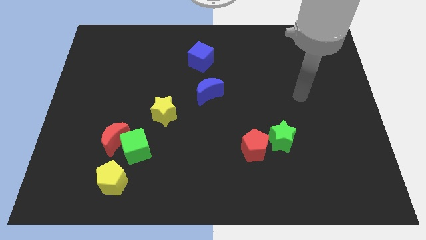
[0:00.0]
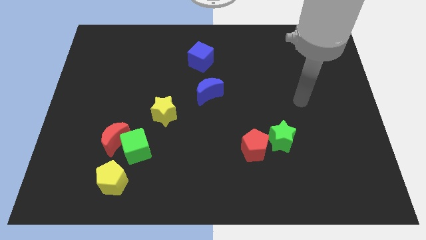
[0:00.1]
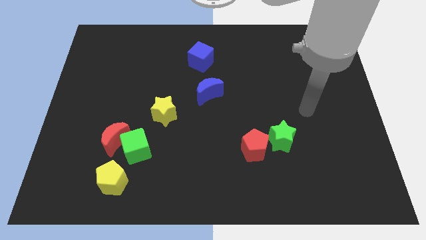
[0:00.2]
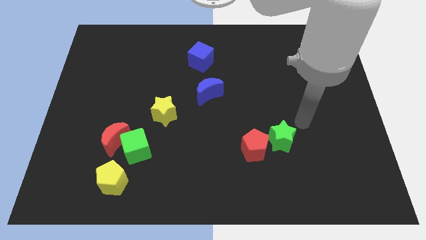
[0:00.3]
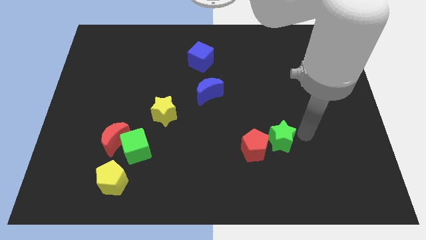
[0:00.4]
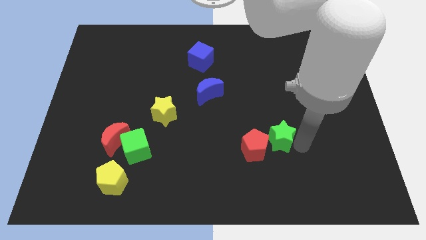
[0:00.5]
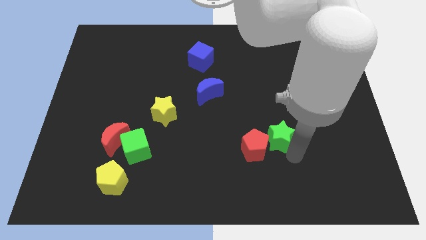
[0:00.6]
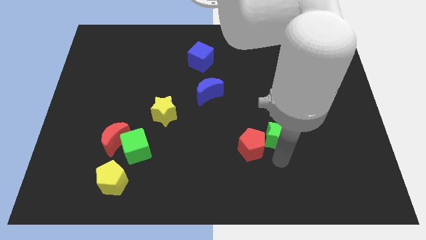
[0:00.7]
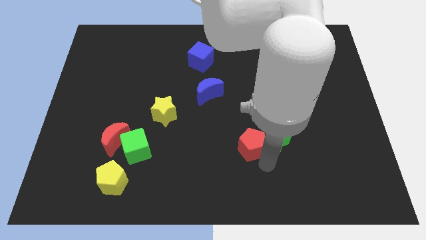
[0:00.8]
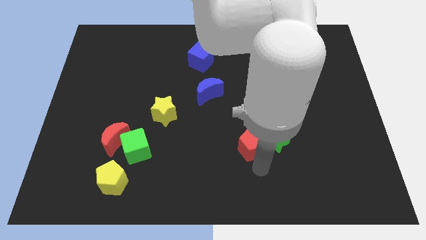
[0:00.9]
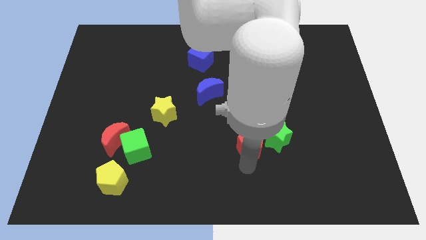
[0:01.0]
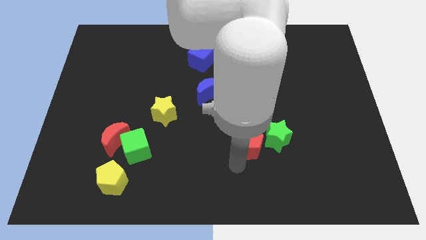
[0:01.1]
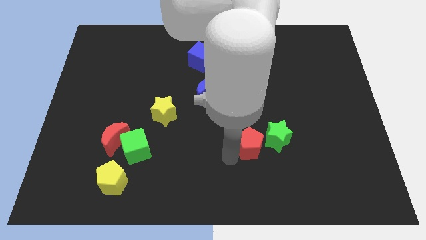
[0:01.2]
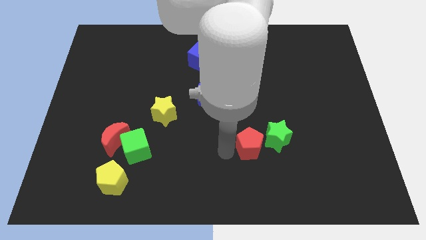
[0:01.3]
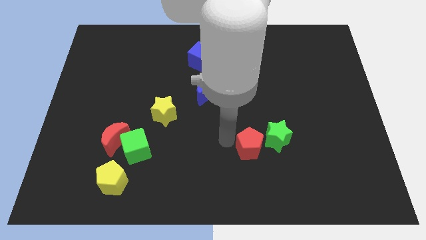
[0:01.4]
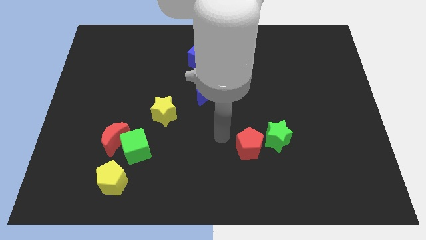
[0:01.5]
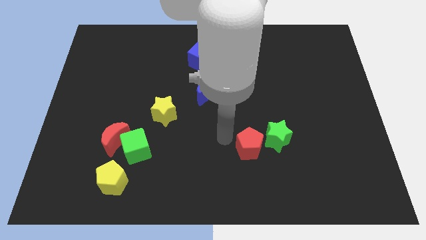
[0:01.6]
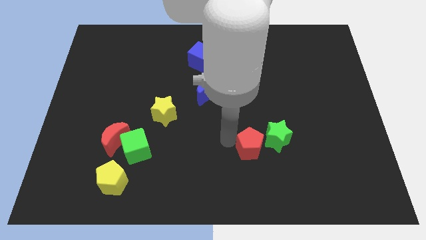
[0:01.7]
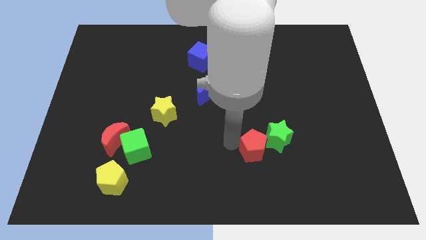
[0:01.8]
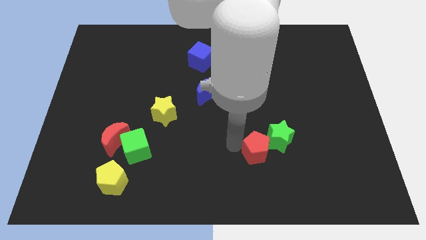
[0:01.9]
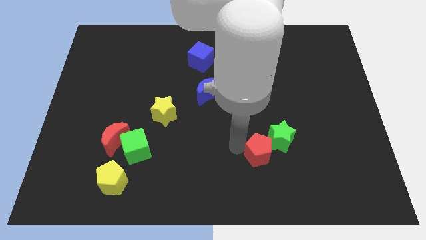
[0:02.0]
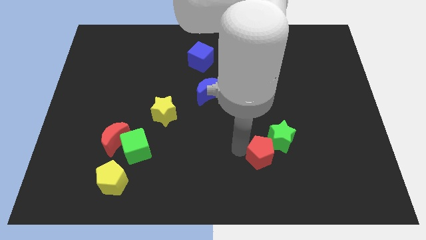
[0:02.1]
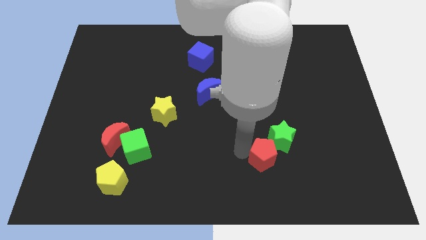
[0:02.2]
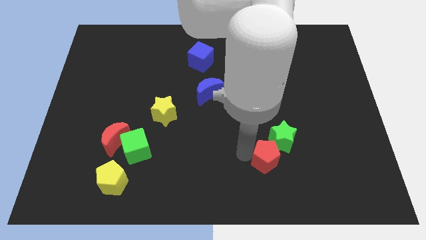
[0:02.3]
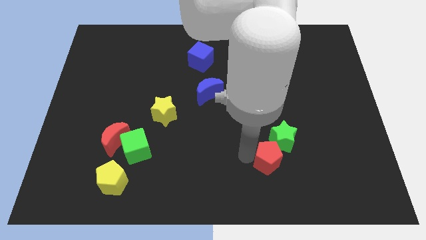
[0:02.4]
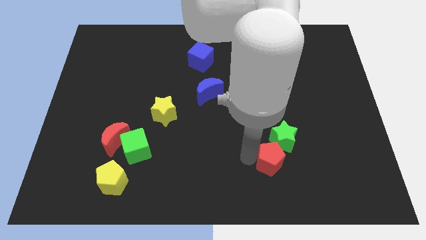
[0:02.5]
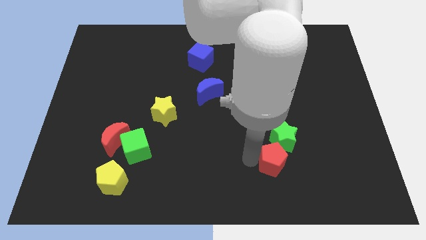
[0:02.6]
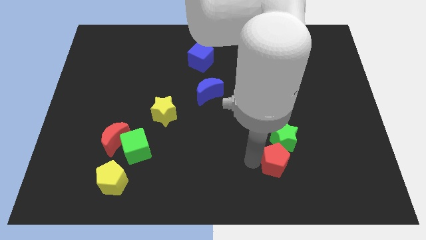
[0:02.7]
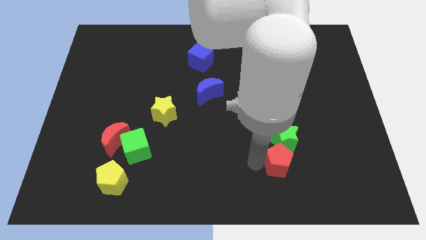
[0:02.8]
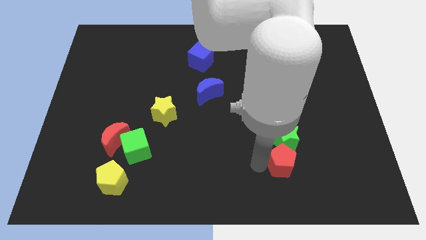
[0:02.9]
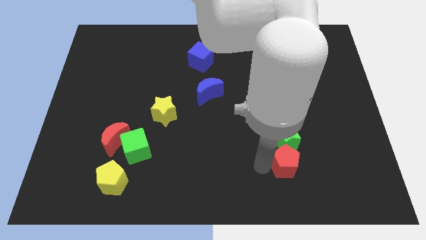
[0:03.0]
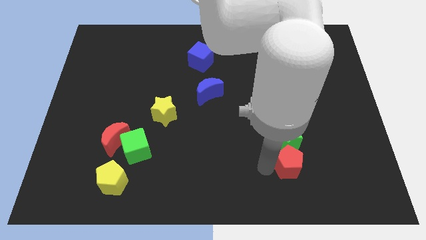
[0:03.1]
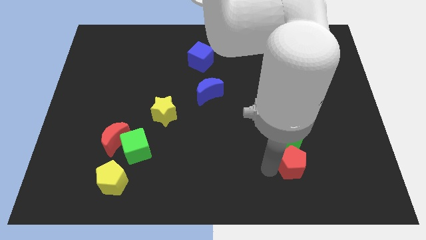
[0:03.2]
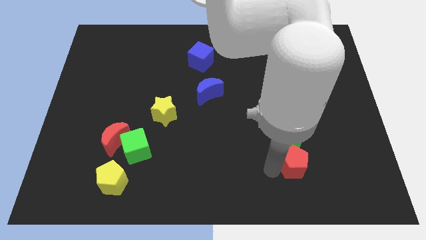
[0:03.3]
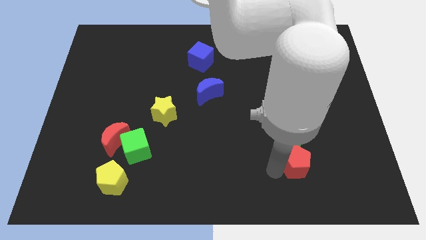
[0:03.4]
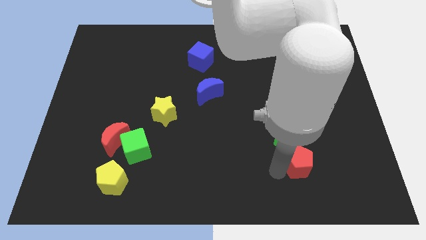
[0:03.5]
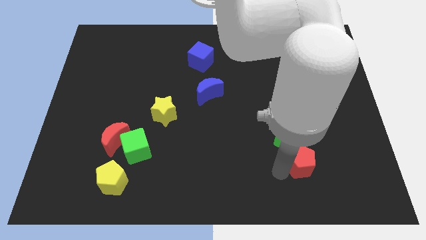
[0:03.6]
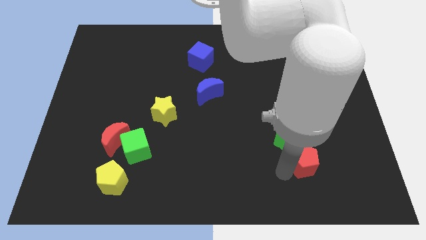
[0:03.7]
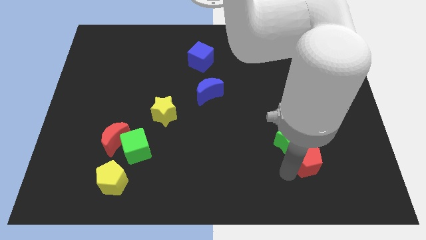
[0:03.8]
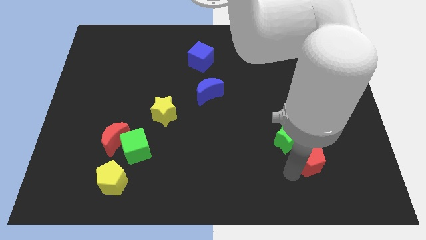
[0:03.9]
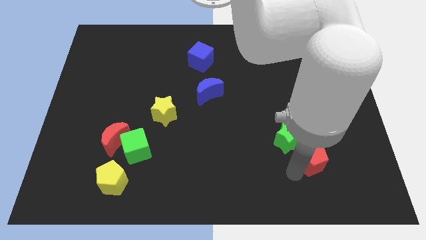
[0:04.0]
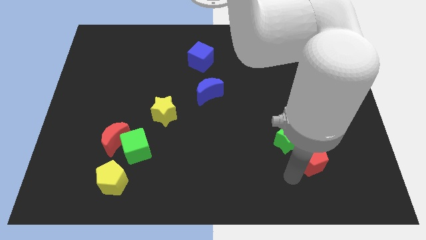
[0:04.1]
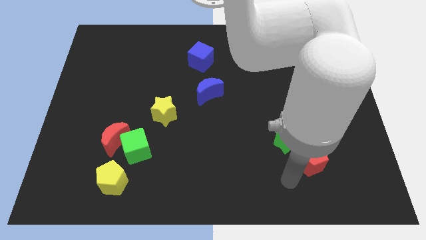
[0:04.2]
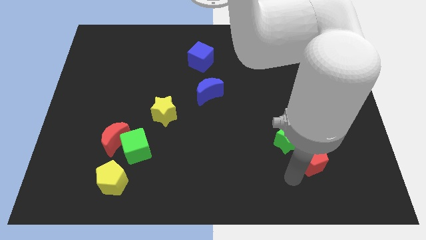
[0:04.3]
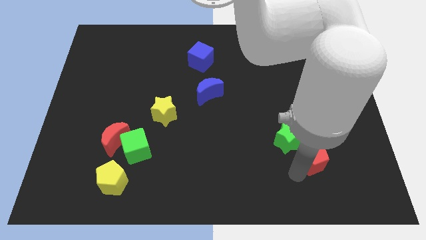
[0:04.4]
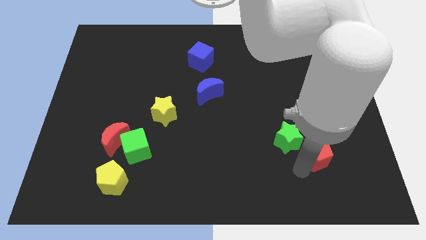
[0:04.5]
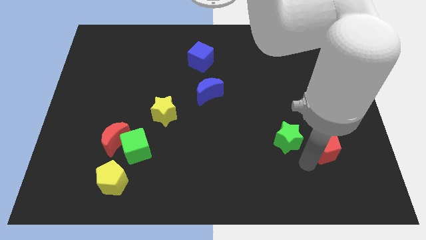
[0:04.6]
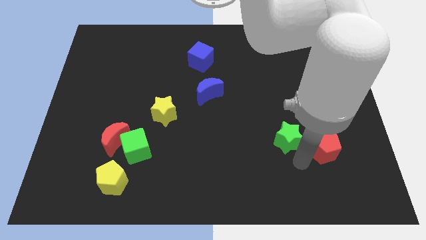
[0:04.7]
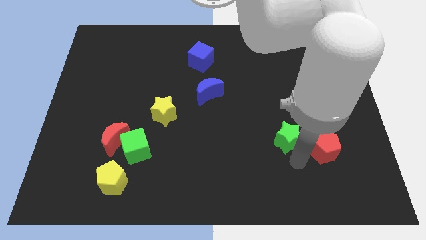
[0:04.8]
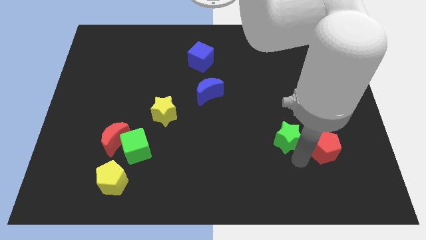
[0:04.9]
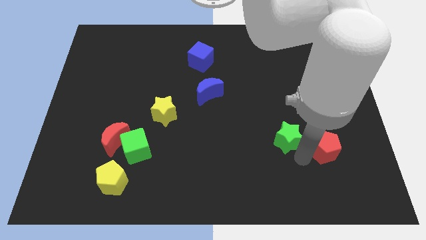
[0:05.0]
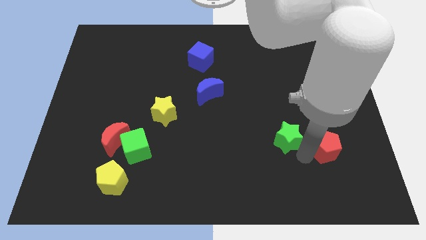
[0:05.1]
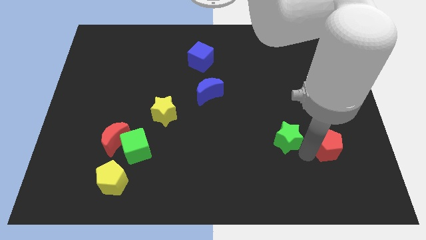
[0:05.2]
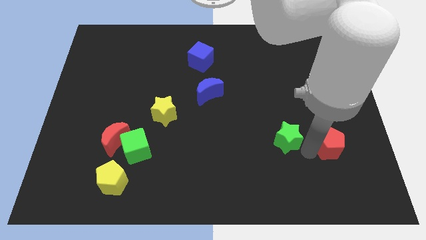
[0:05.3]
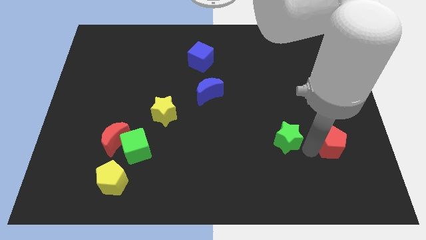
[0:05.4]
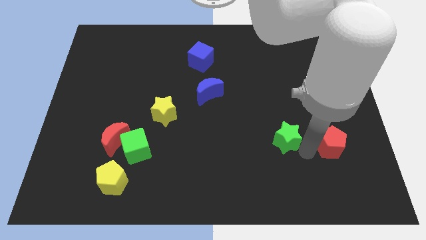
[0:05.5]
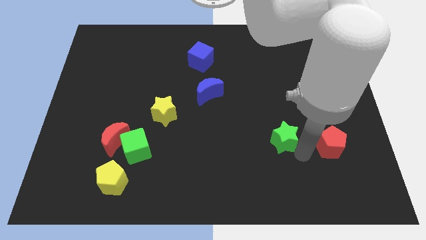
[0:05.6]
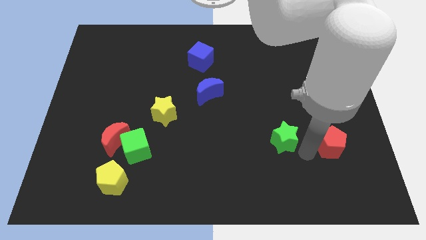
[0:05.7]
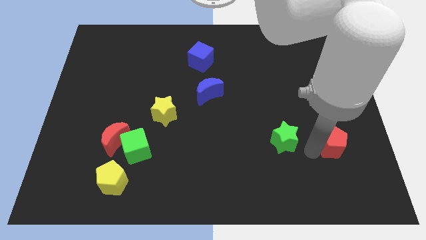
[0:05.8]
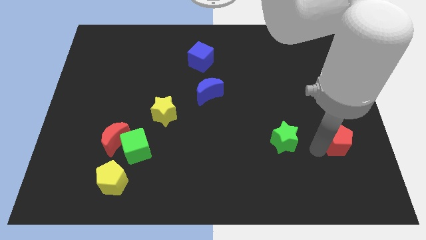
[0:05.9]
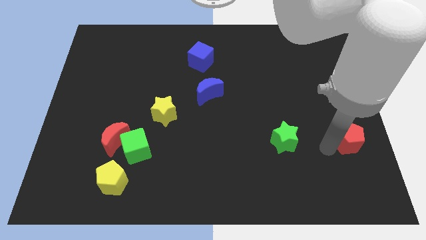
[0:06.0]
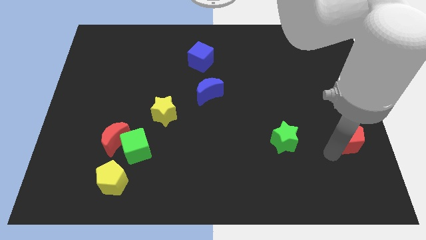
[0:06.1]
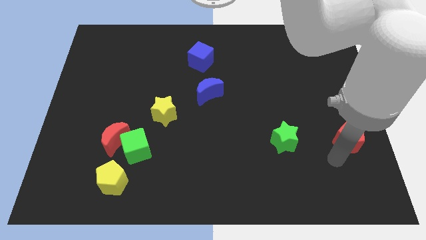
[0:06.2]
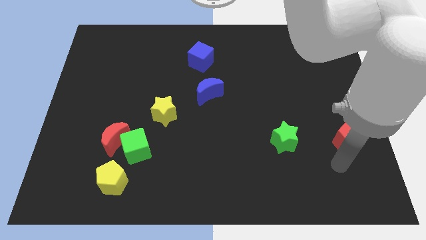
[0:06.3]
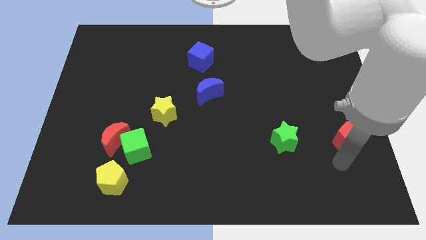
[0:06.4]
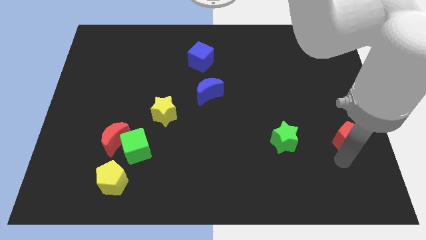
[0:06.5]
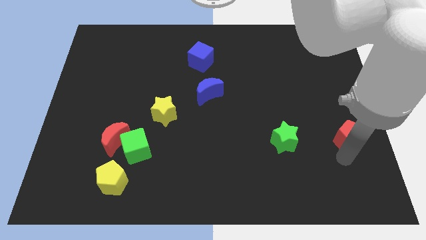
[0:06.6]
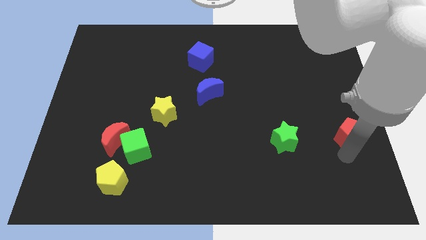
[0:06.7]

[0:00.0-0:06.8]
put the red pentagon to the right side
